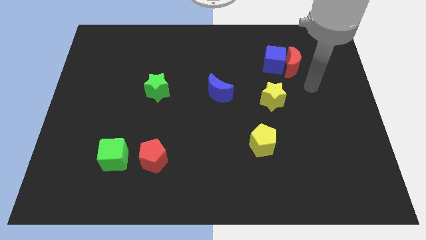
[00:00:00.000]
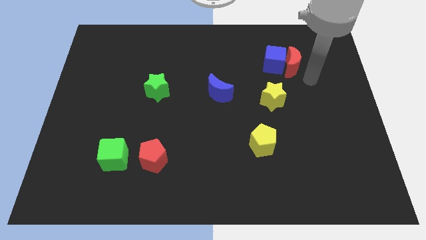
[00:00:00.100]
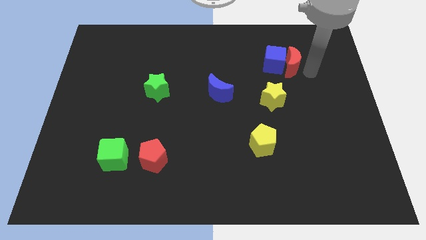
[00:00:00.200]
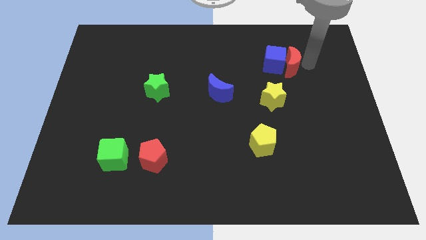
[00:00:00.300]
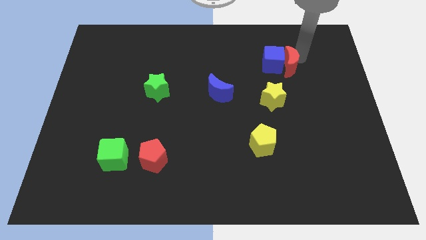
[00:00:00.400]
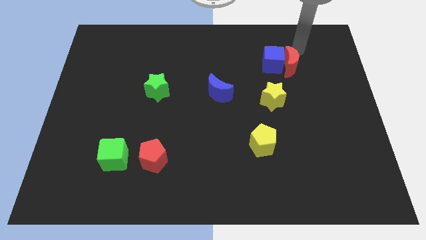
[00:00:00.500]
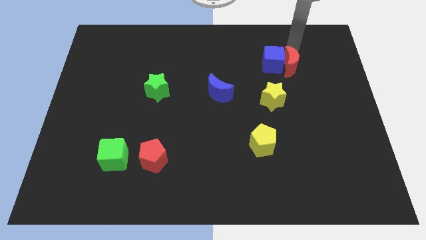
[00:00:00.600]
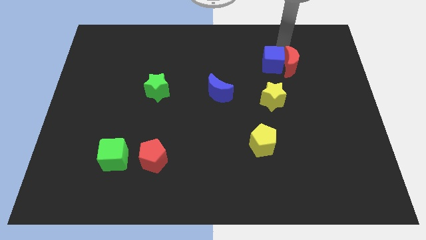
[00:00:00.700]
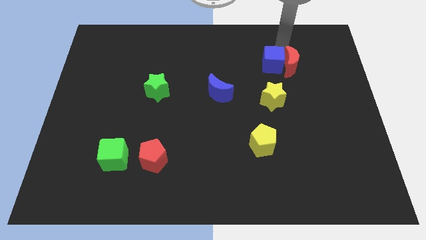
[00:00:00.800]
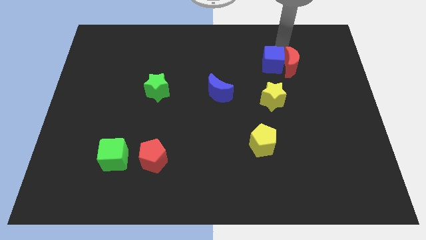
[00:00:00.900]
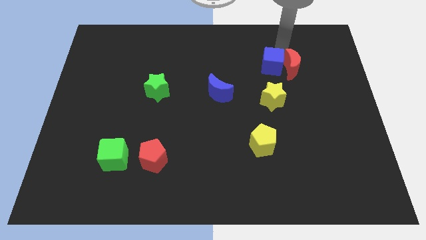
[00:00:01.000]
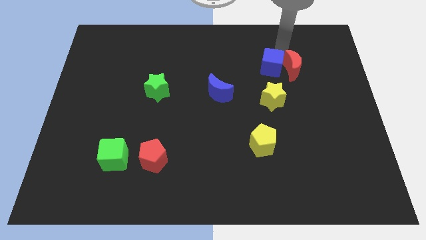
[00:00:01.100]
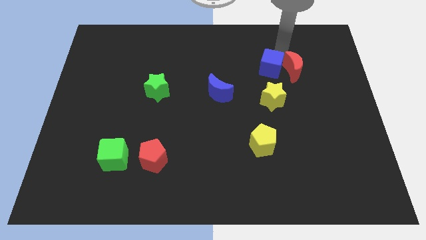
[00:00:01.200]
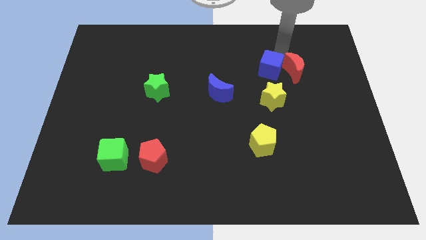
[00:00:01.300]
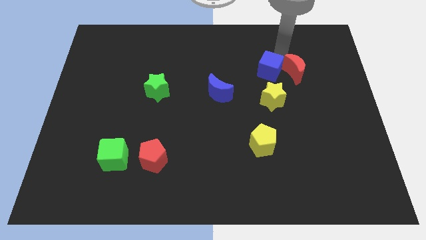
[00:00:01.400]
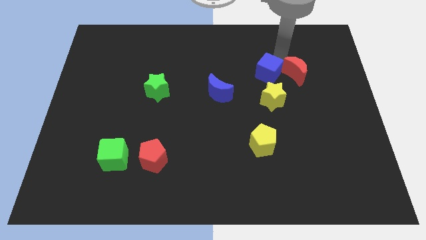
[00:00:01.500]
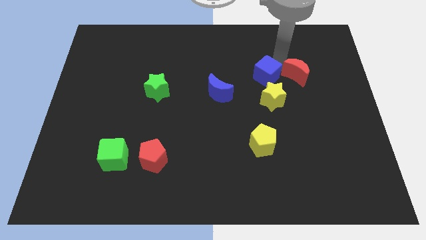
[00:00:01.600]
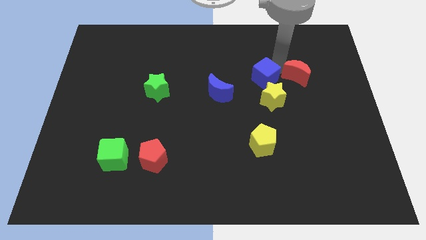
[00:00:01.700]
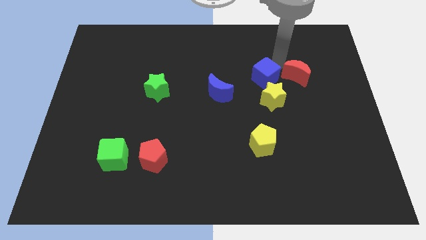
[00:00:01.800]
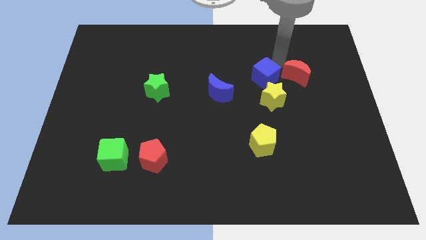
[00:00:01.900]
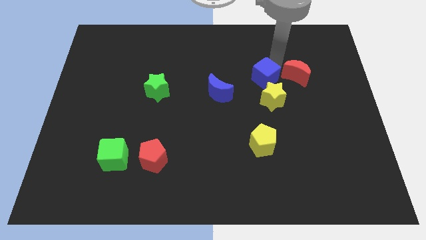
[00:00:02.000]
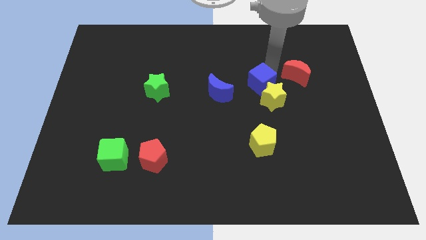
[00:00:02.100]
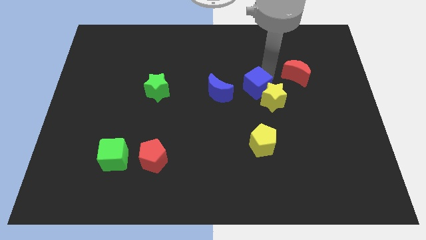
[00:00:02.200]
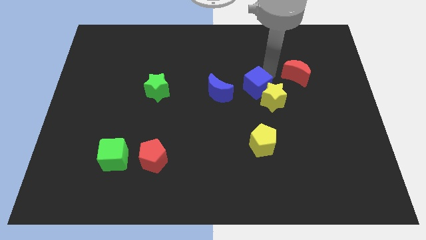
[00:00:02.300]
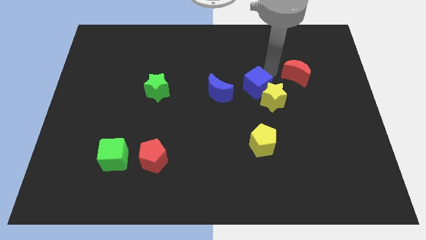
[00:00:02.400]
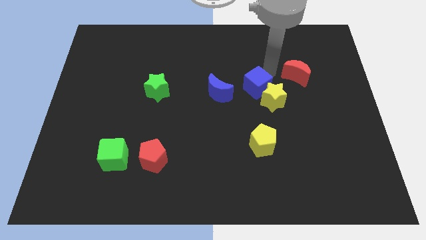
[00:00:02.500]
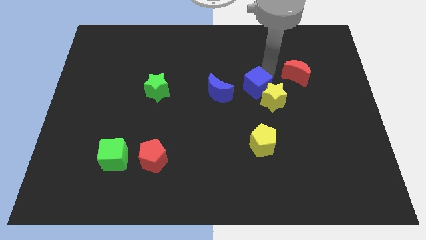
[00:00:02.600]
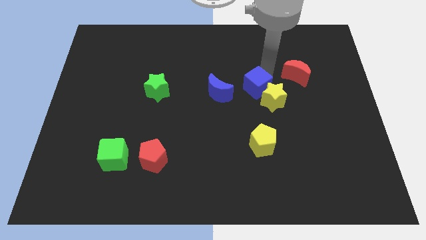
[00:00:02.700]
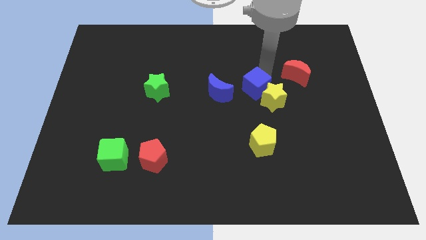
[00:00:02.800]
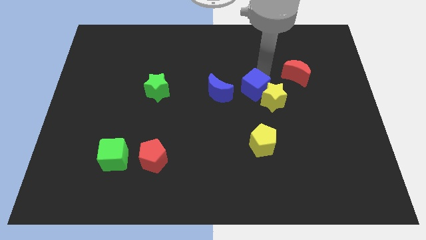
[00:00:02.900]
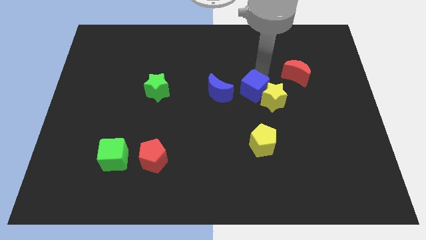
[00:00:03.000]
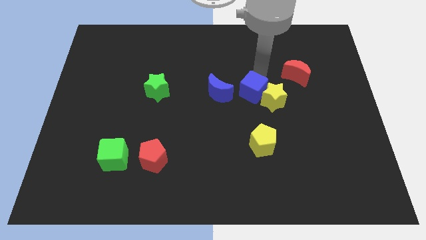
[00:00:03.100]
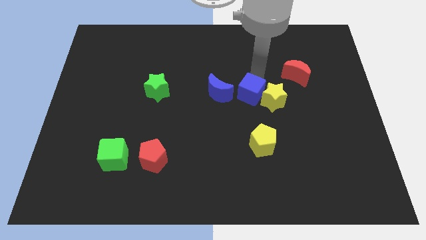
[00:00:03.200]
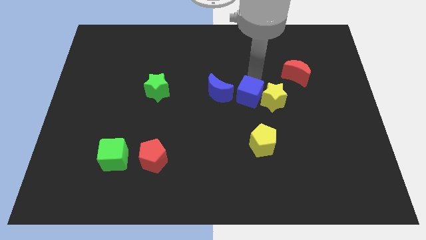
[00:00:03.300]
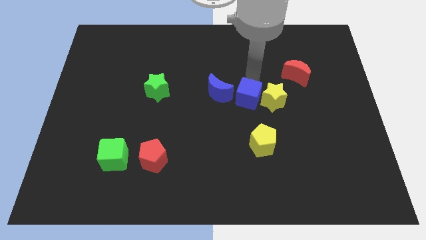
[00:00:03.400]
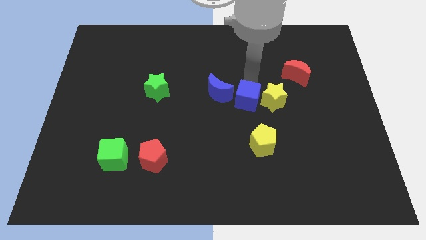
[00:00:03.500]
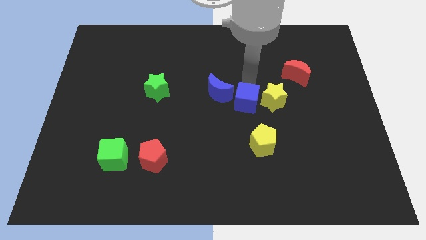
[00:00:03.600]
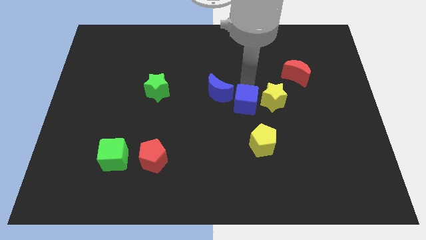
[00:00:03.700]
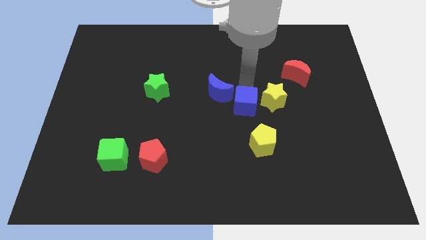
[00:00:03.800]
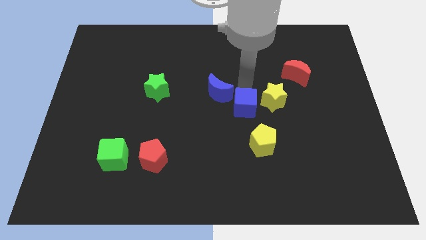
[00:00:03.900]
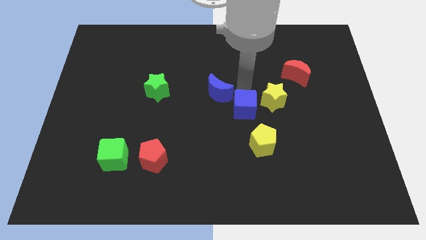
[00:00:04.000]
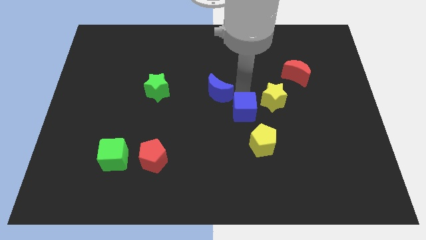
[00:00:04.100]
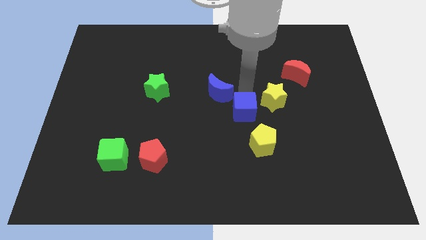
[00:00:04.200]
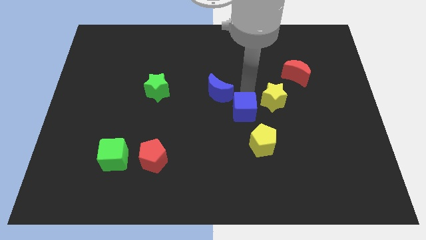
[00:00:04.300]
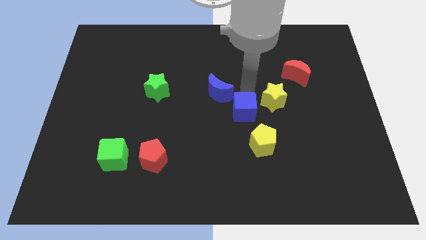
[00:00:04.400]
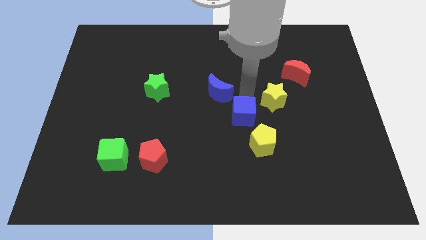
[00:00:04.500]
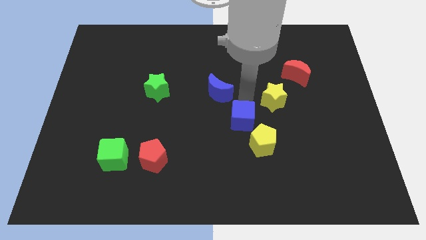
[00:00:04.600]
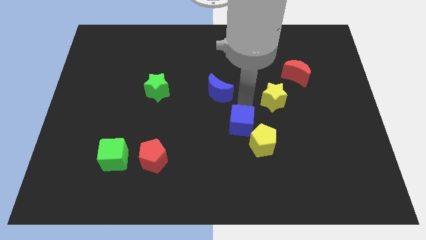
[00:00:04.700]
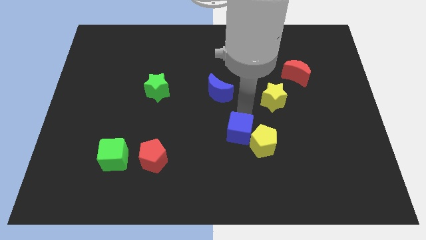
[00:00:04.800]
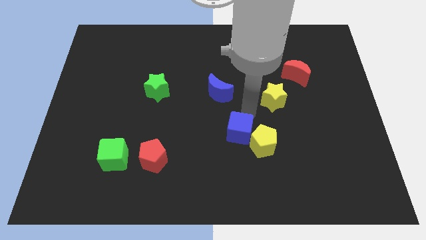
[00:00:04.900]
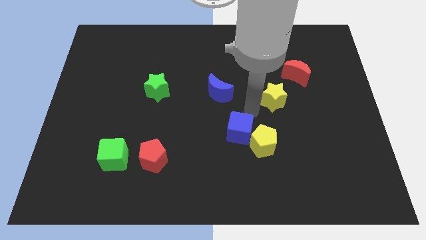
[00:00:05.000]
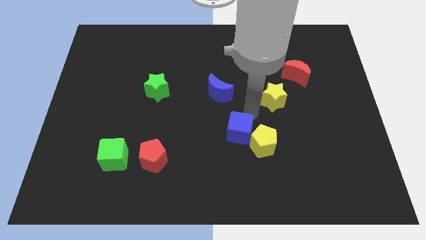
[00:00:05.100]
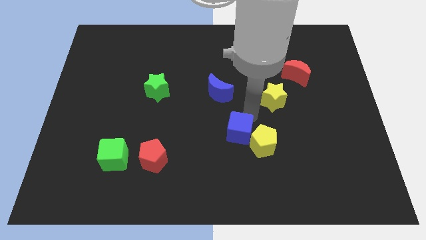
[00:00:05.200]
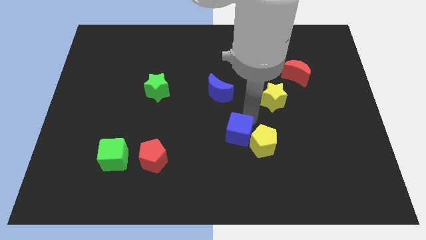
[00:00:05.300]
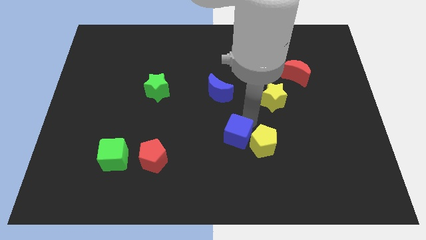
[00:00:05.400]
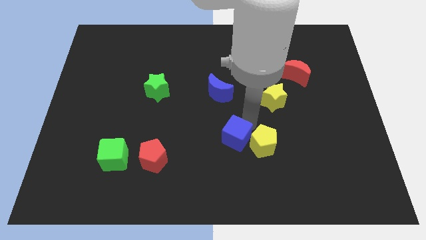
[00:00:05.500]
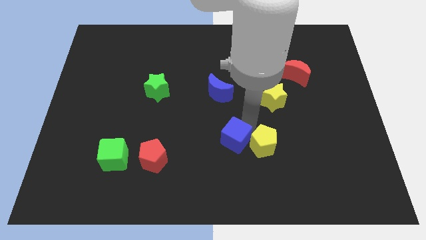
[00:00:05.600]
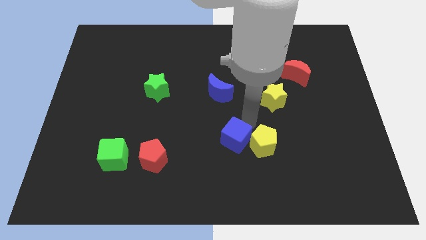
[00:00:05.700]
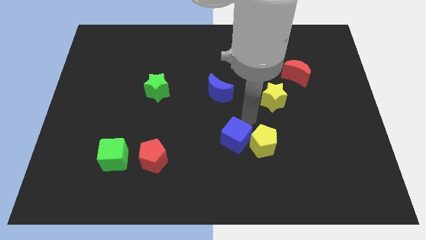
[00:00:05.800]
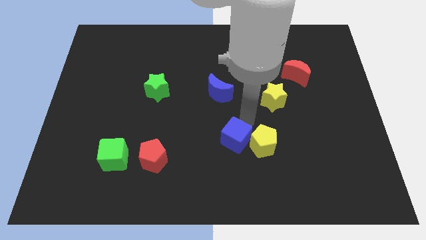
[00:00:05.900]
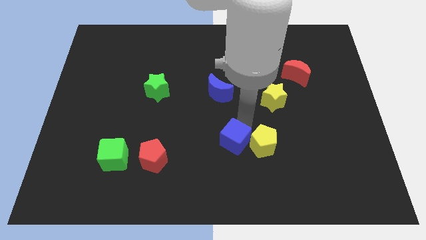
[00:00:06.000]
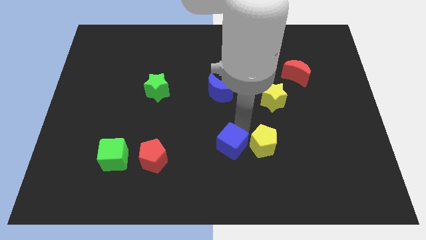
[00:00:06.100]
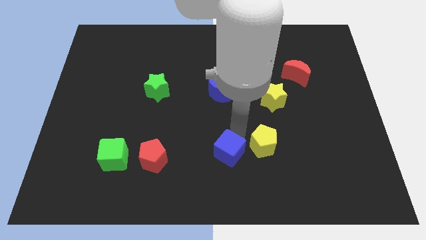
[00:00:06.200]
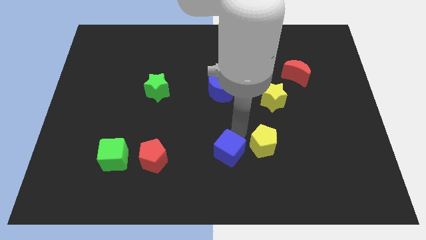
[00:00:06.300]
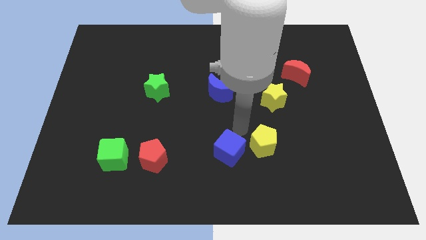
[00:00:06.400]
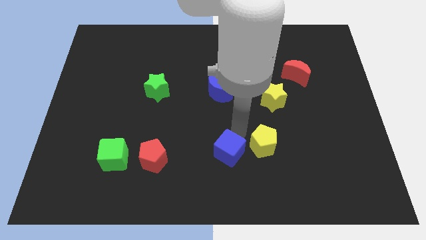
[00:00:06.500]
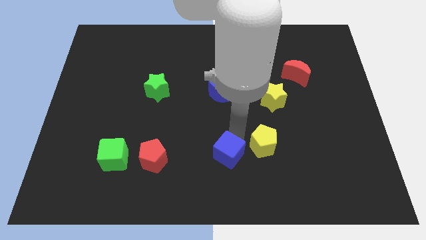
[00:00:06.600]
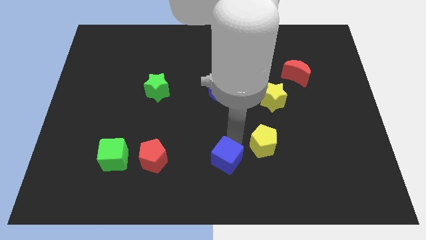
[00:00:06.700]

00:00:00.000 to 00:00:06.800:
push the blue cube to the bottom

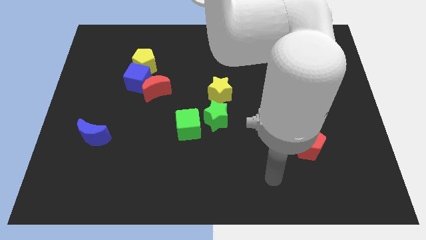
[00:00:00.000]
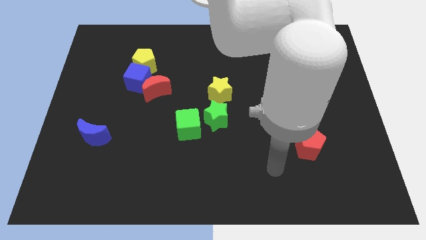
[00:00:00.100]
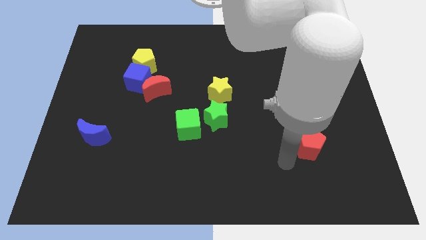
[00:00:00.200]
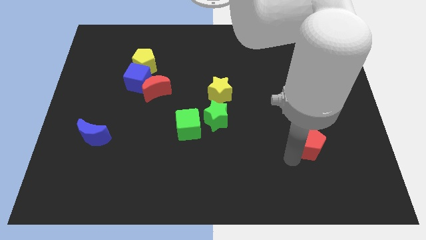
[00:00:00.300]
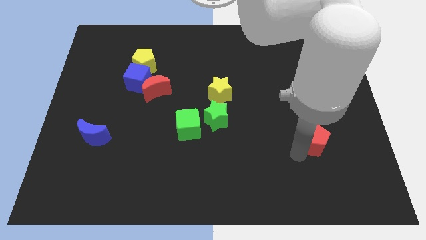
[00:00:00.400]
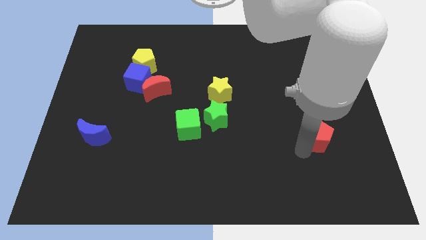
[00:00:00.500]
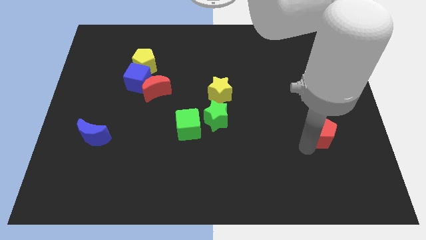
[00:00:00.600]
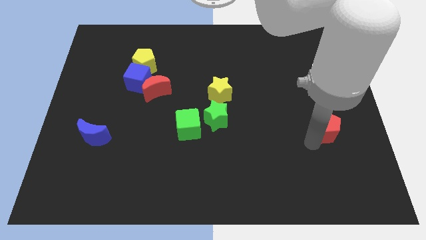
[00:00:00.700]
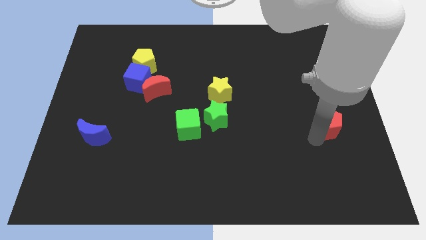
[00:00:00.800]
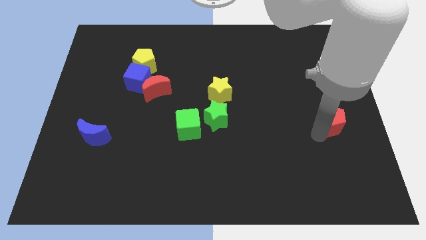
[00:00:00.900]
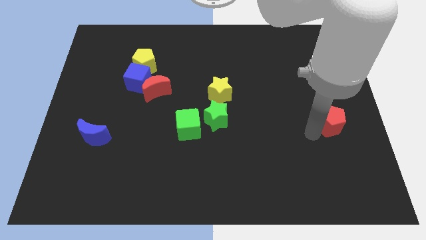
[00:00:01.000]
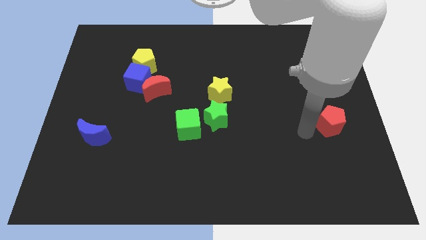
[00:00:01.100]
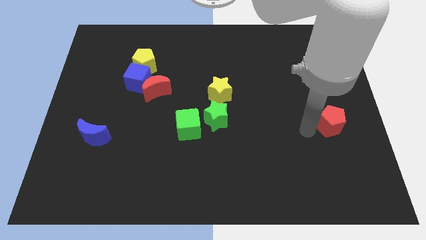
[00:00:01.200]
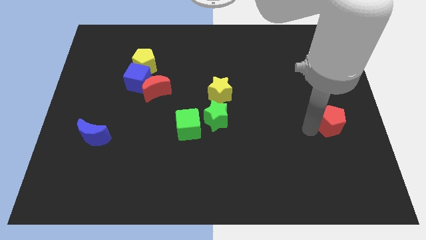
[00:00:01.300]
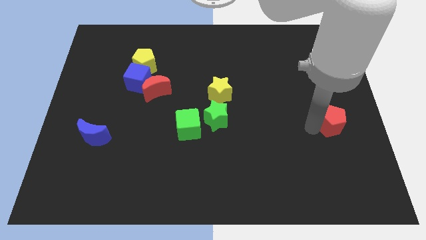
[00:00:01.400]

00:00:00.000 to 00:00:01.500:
slide the red pentagon to the right side of the board
